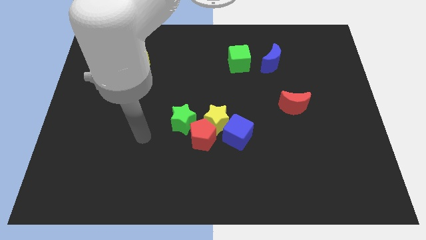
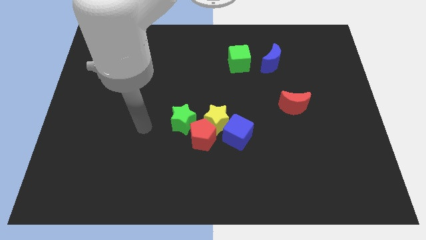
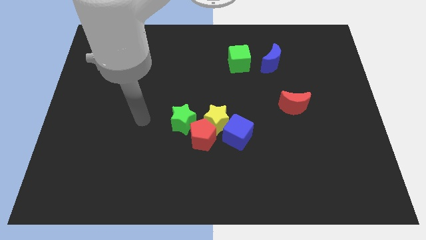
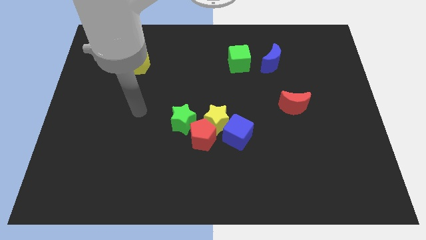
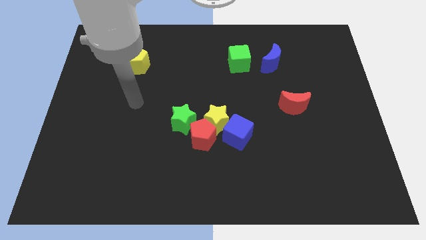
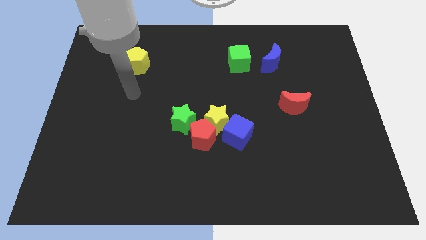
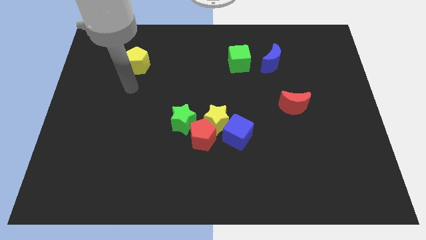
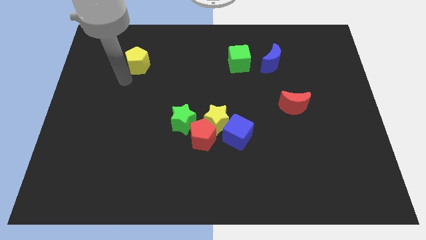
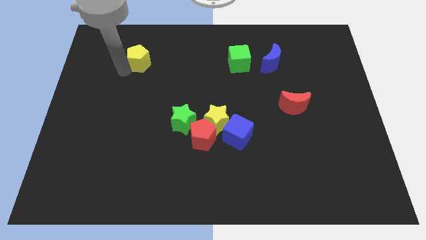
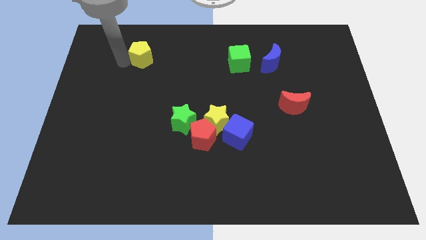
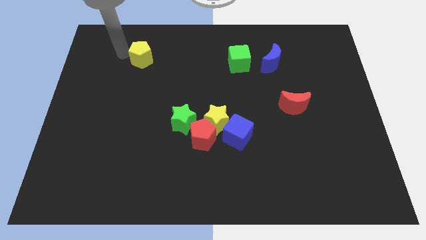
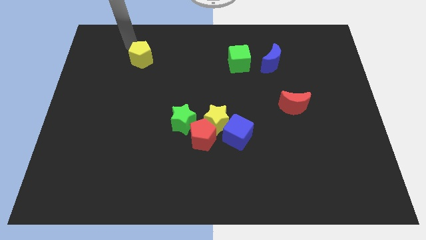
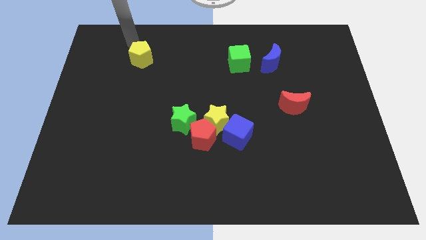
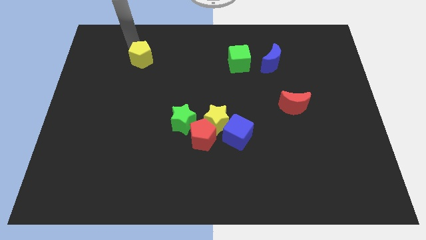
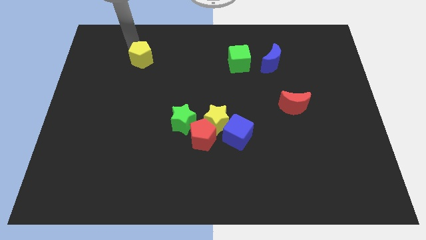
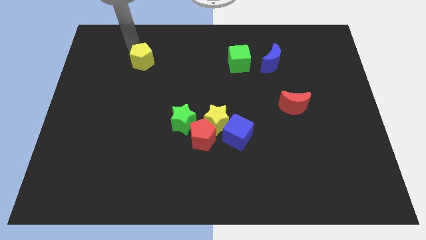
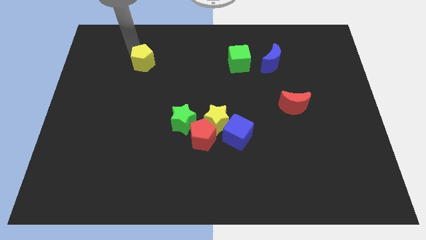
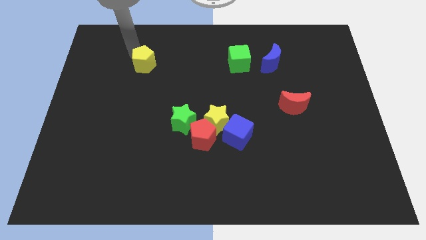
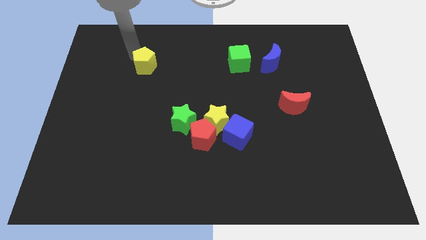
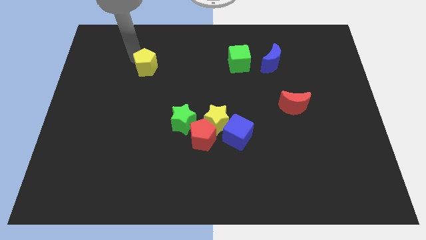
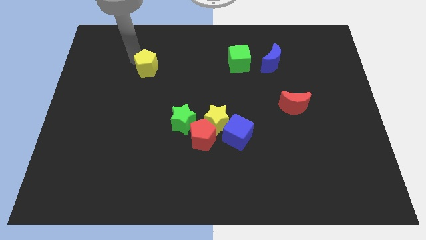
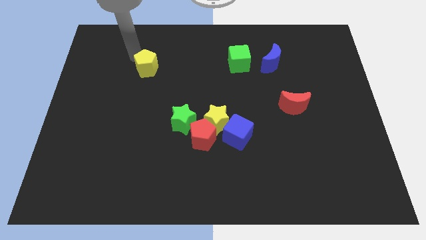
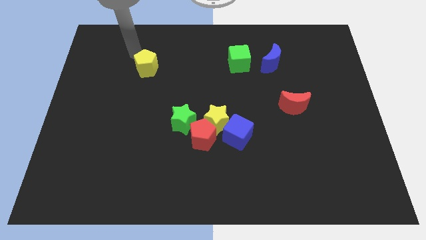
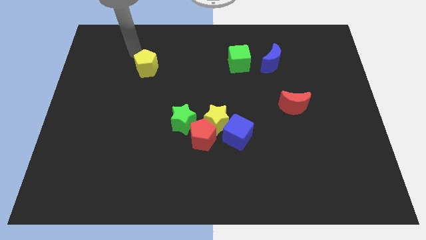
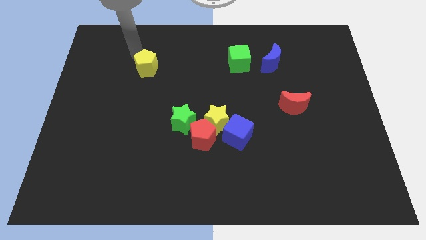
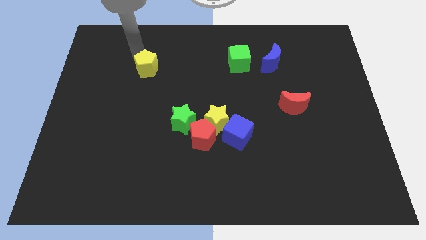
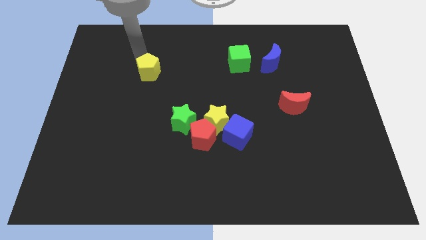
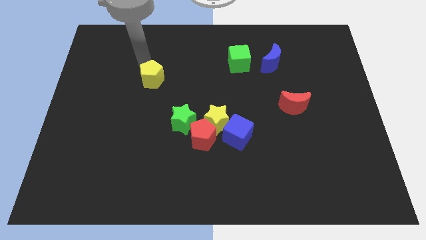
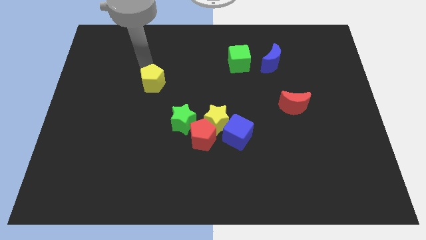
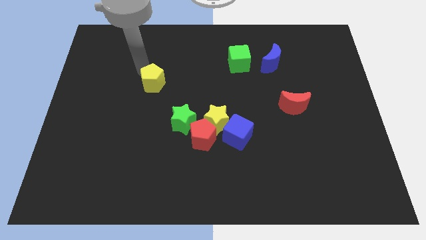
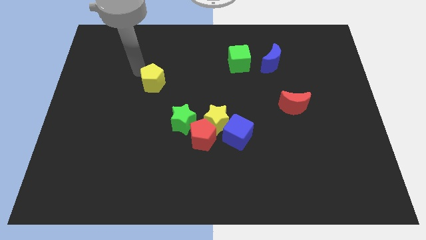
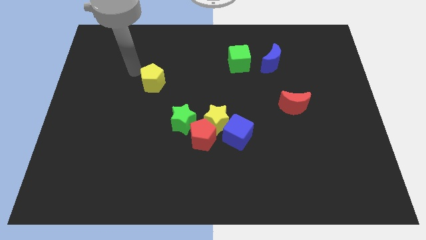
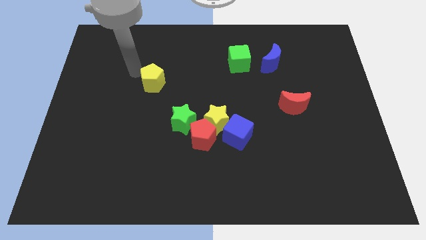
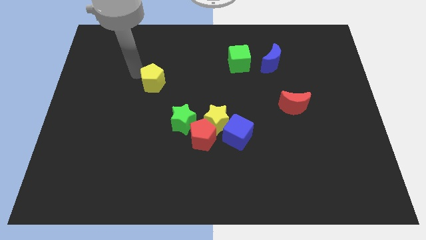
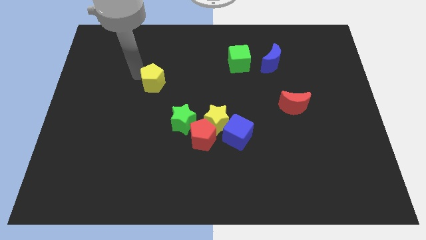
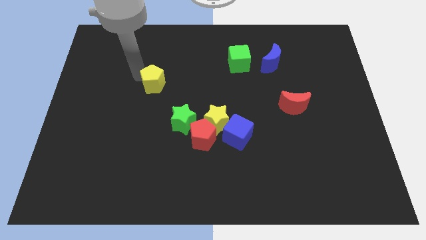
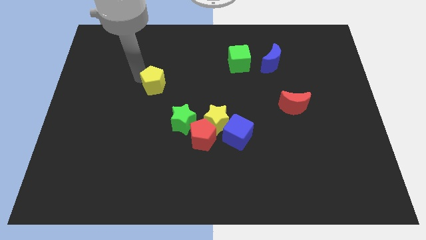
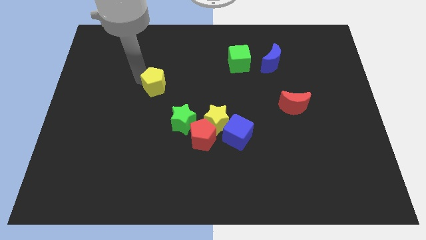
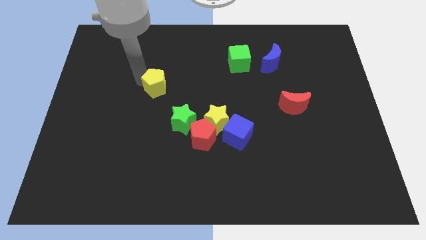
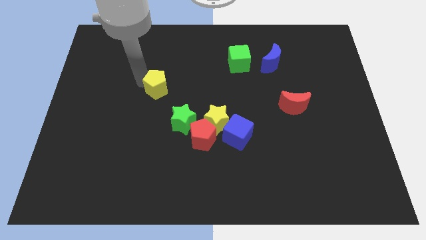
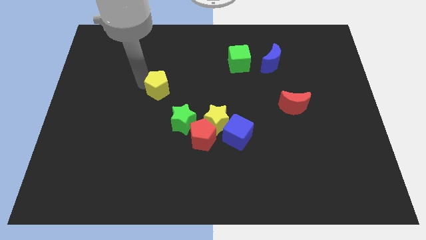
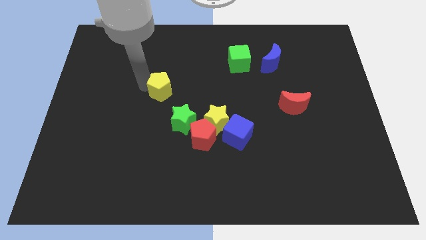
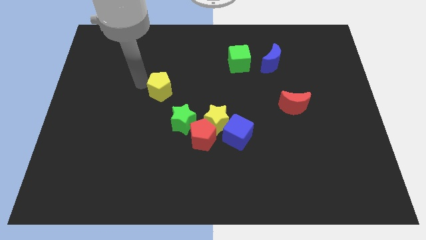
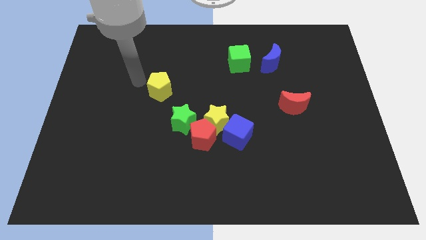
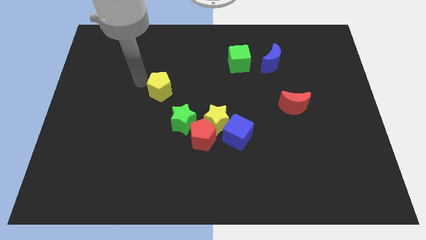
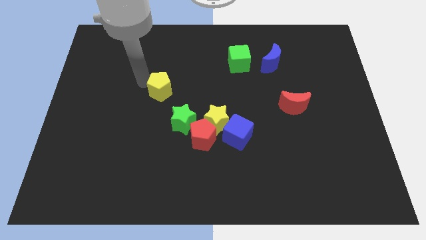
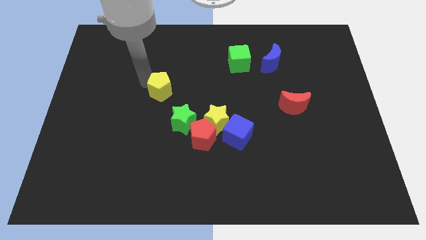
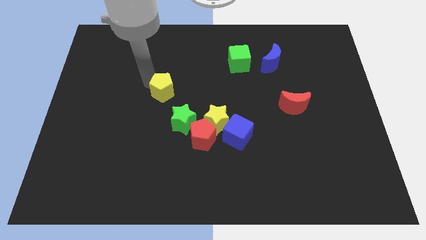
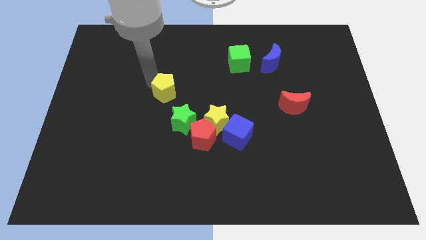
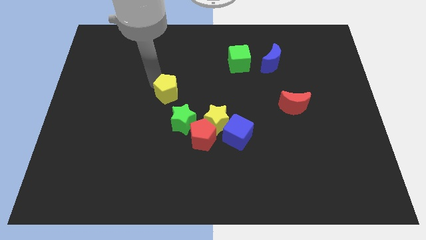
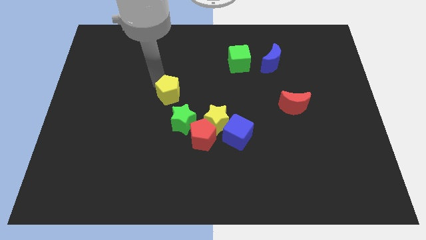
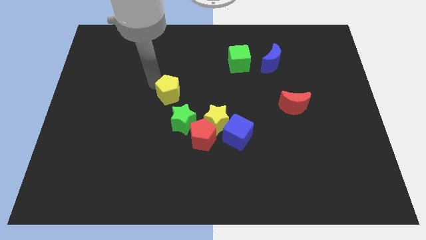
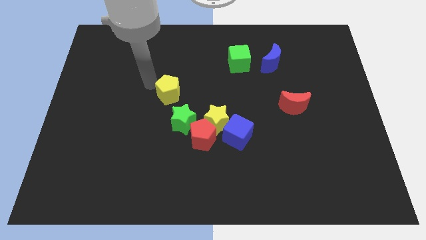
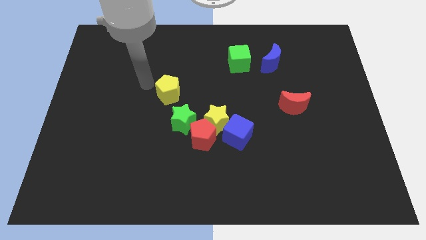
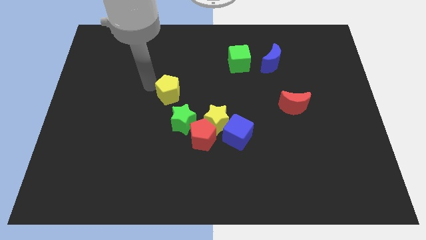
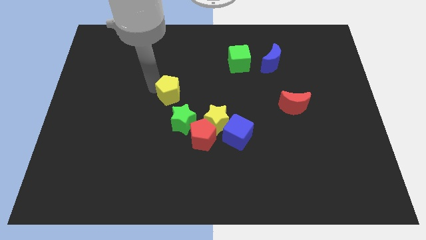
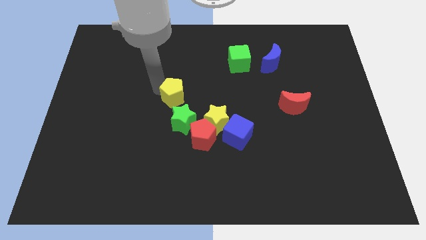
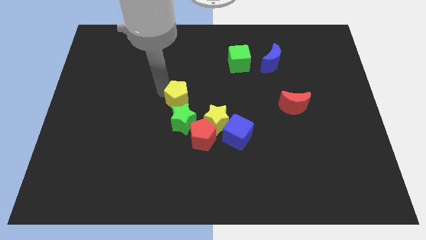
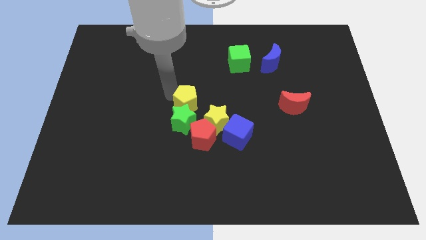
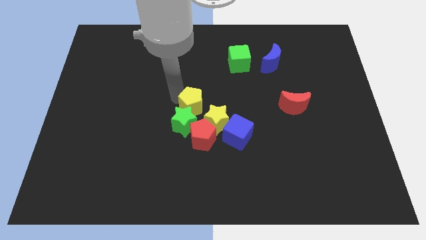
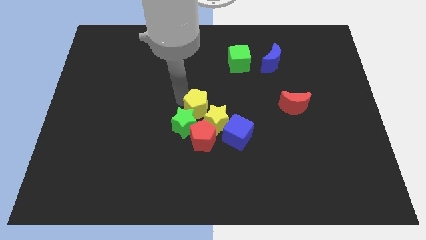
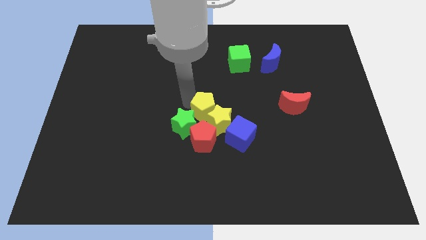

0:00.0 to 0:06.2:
push the yellow pentagon towards the yellow star
